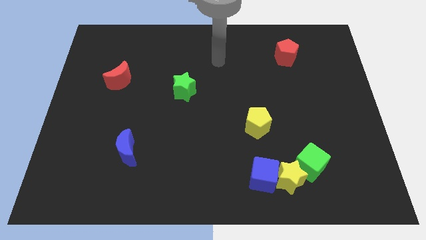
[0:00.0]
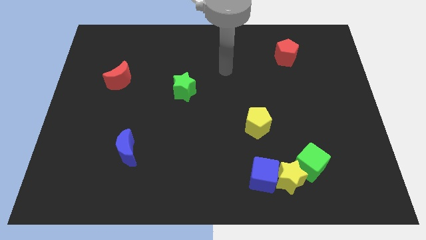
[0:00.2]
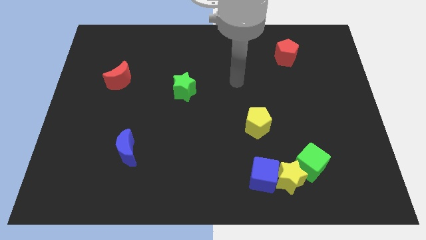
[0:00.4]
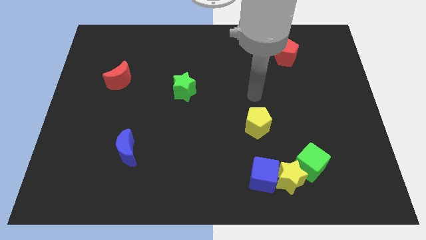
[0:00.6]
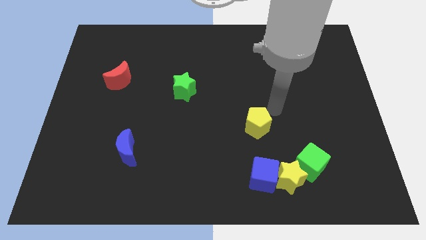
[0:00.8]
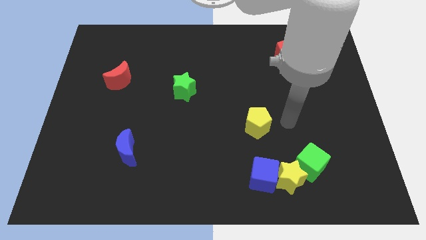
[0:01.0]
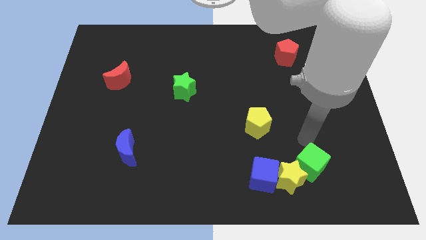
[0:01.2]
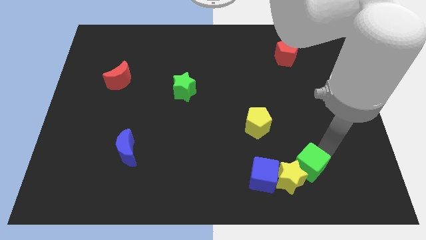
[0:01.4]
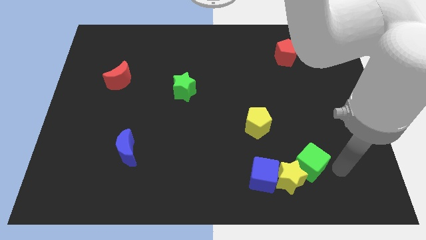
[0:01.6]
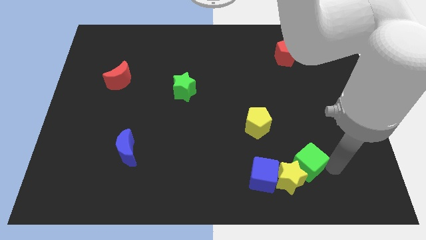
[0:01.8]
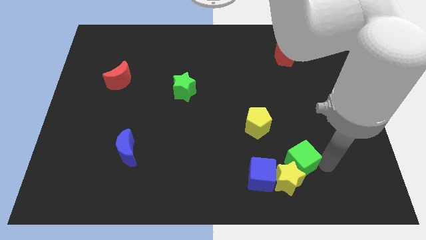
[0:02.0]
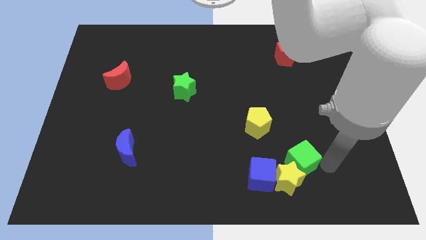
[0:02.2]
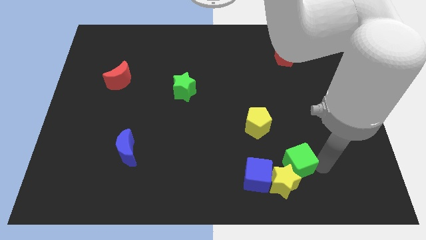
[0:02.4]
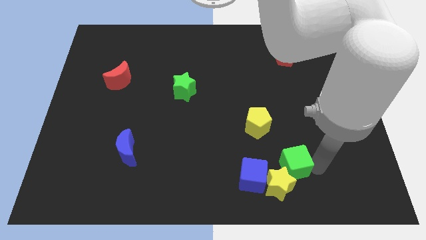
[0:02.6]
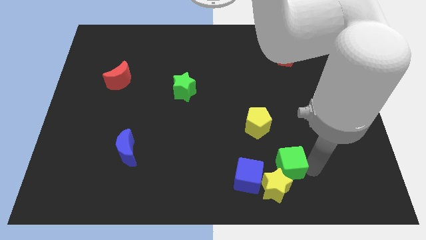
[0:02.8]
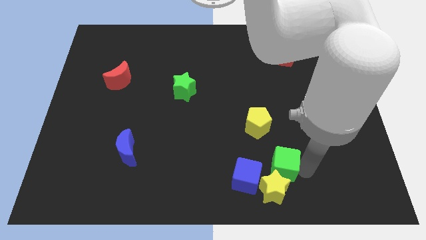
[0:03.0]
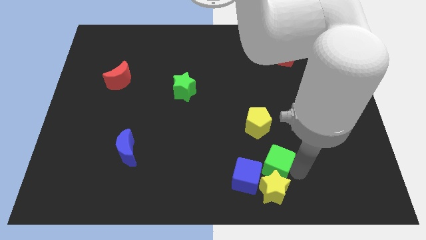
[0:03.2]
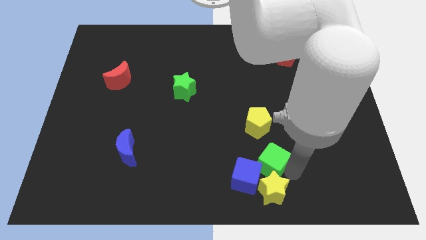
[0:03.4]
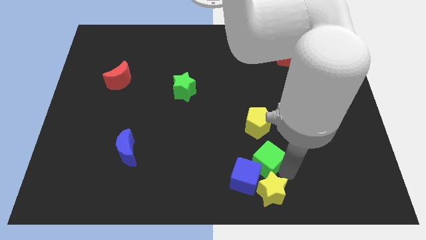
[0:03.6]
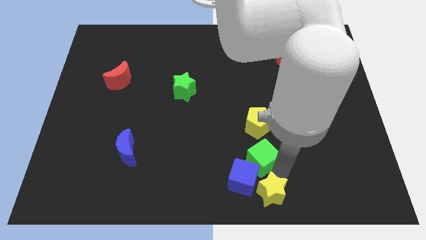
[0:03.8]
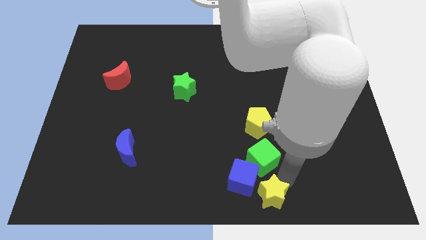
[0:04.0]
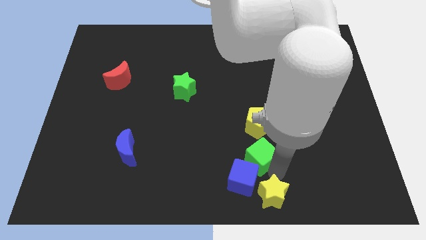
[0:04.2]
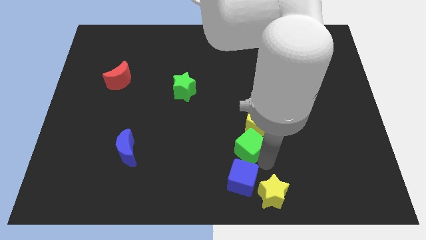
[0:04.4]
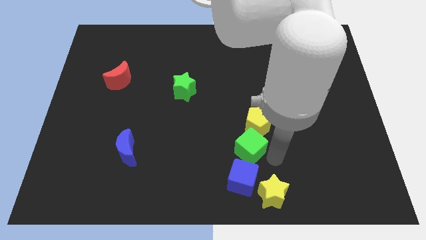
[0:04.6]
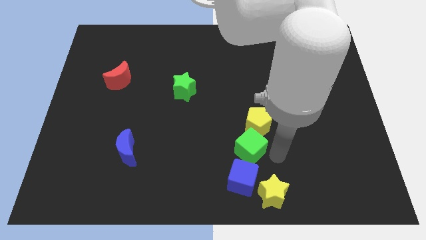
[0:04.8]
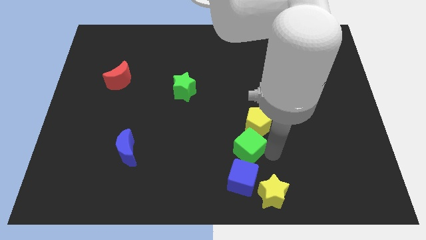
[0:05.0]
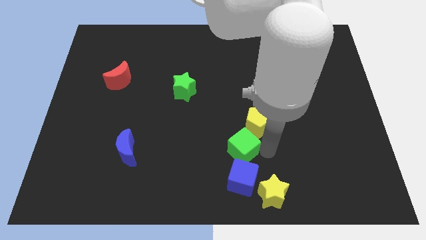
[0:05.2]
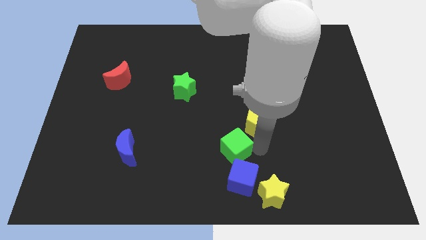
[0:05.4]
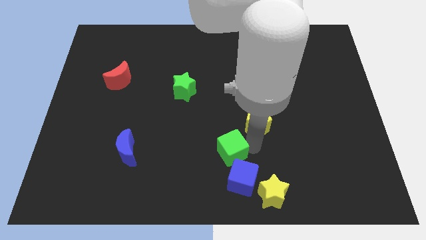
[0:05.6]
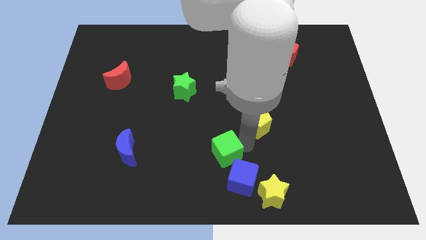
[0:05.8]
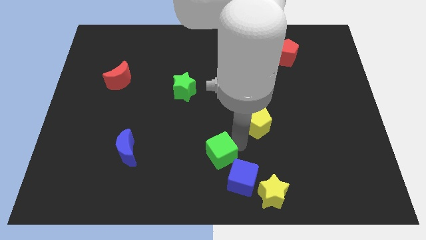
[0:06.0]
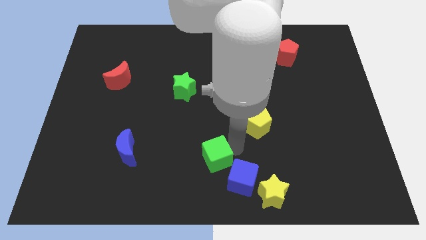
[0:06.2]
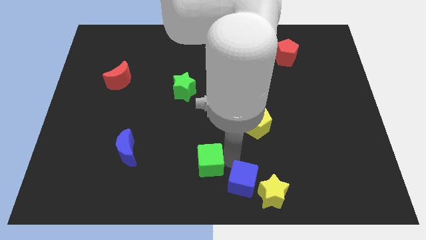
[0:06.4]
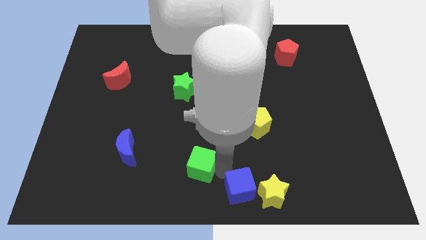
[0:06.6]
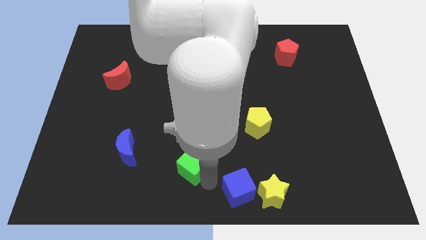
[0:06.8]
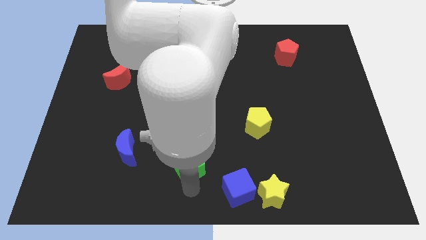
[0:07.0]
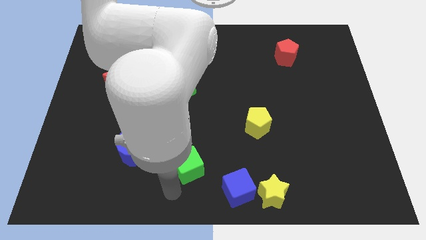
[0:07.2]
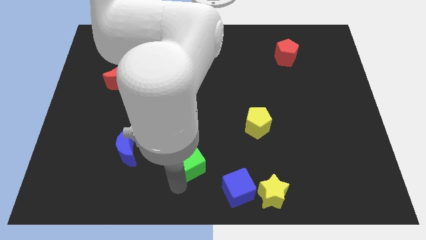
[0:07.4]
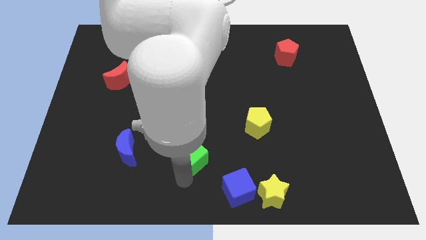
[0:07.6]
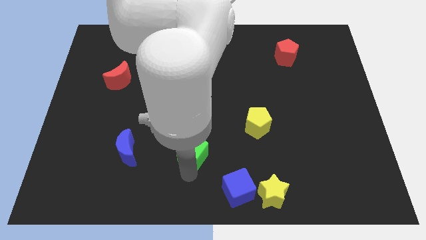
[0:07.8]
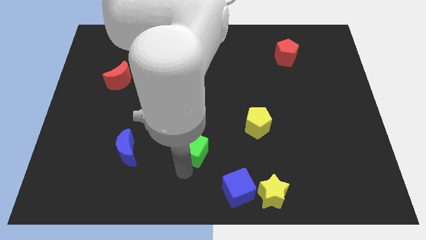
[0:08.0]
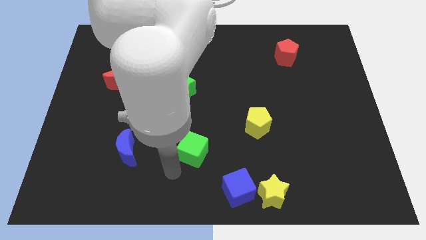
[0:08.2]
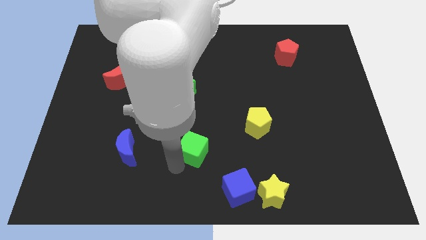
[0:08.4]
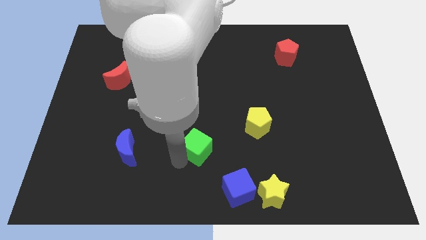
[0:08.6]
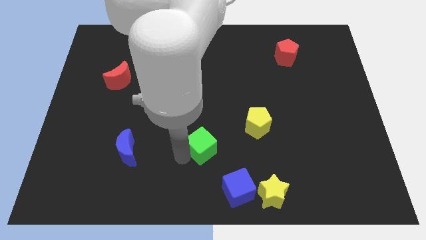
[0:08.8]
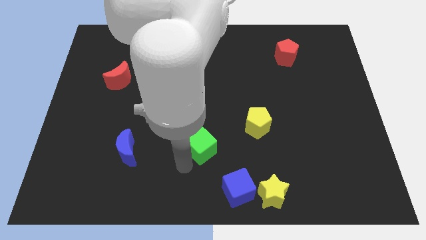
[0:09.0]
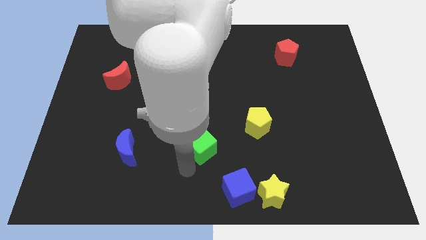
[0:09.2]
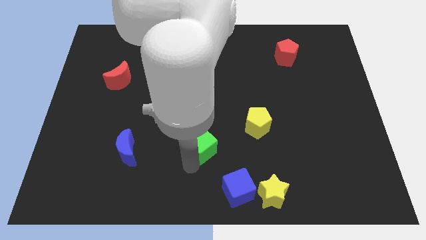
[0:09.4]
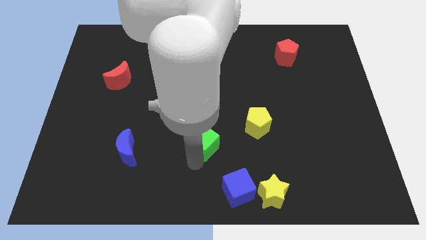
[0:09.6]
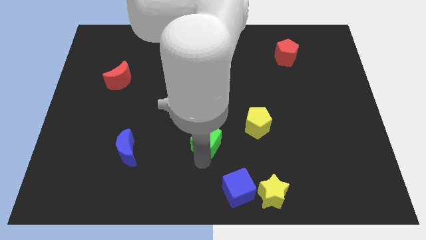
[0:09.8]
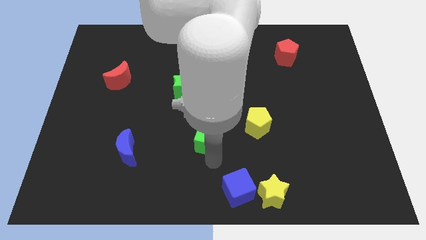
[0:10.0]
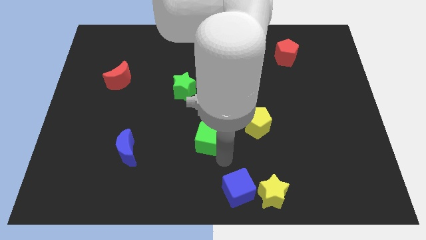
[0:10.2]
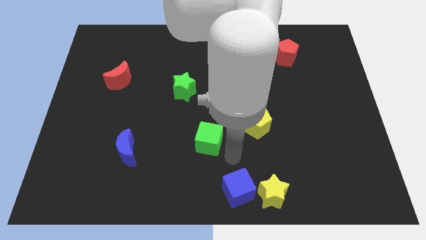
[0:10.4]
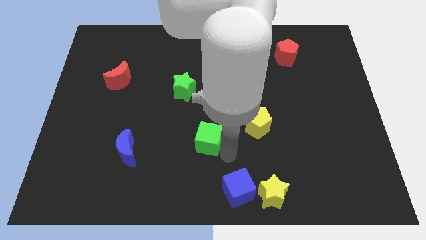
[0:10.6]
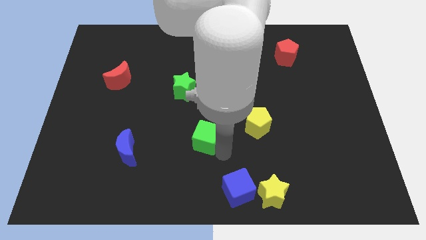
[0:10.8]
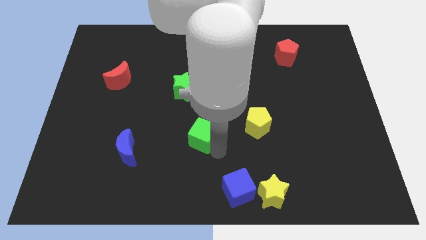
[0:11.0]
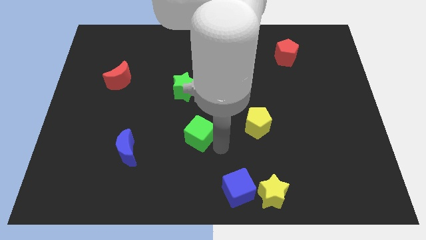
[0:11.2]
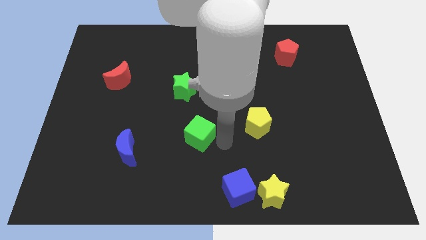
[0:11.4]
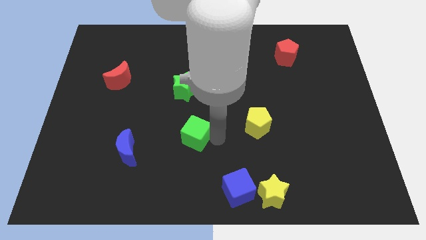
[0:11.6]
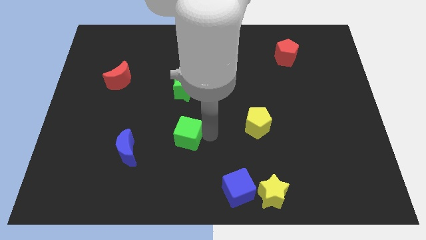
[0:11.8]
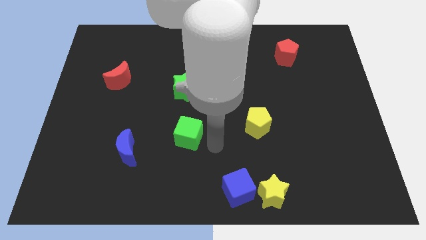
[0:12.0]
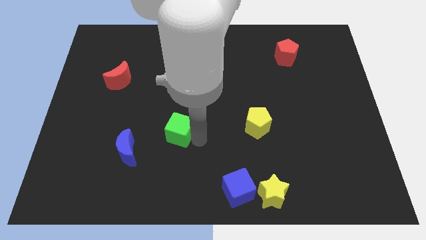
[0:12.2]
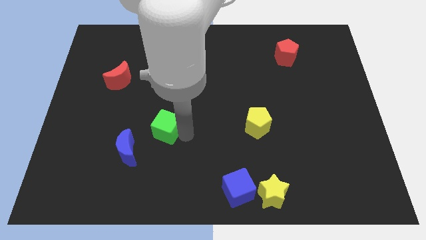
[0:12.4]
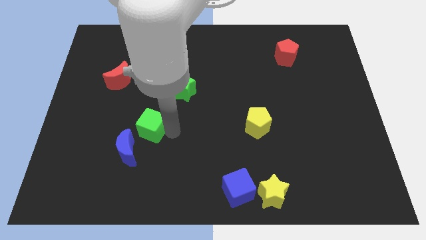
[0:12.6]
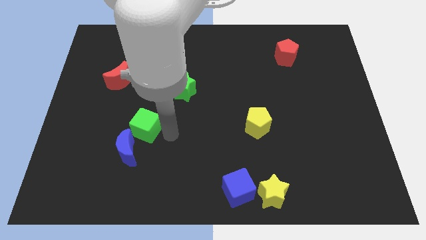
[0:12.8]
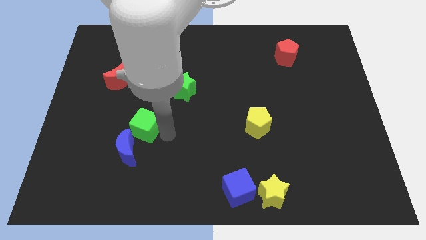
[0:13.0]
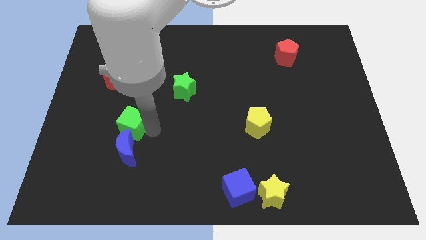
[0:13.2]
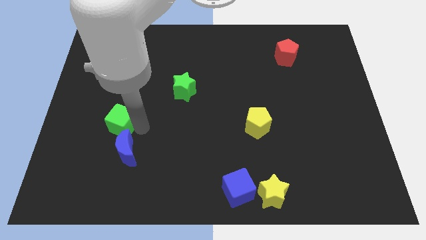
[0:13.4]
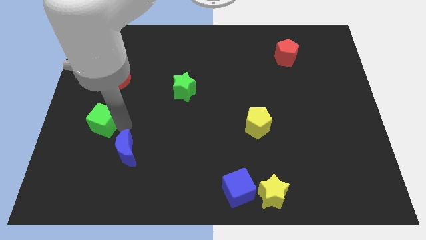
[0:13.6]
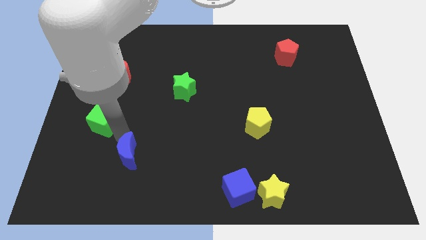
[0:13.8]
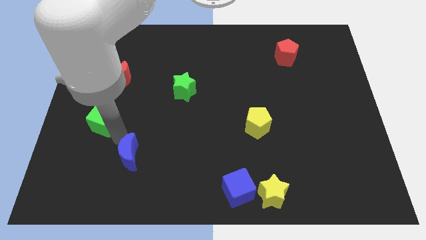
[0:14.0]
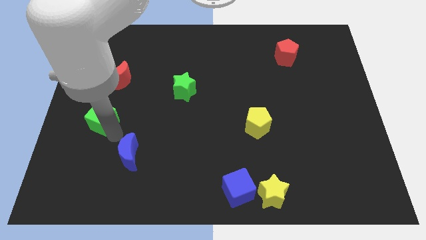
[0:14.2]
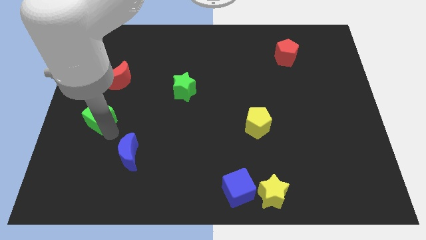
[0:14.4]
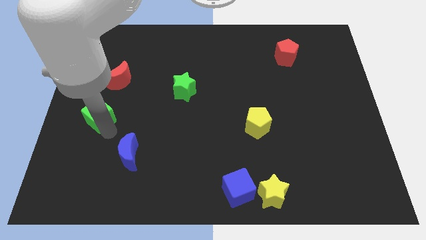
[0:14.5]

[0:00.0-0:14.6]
move the green cube to the center left
